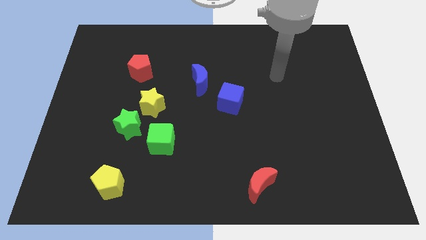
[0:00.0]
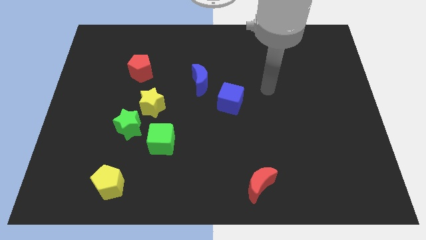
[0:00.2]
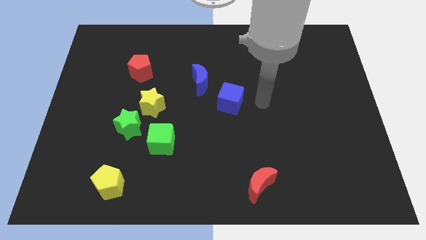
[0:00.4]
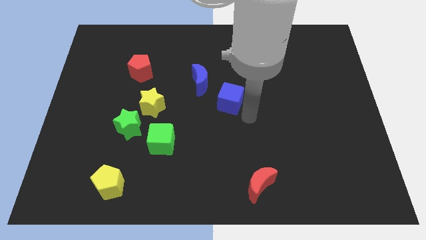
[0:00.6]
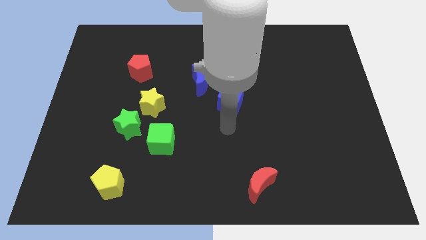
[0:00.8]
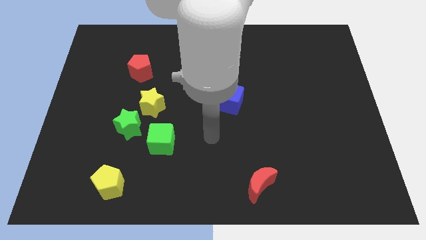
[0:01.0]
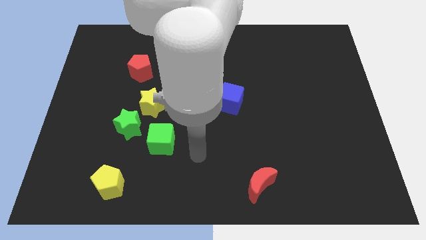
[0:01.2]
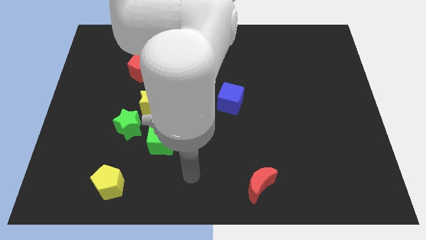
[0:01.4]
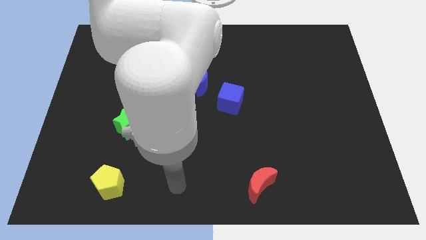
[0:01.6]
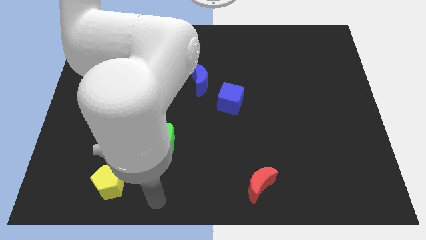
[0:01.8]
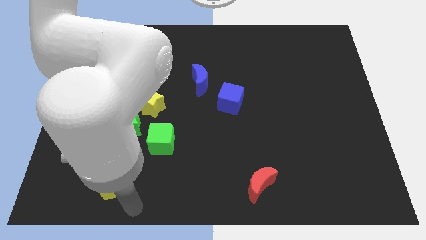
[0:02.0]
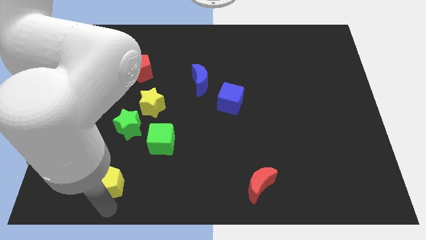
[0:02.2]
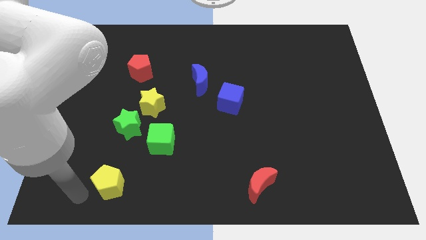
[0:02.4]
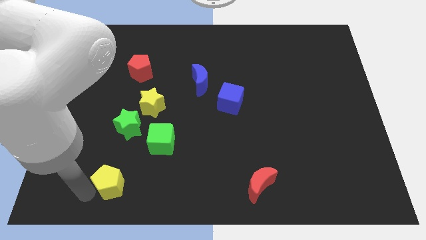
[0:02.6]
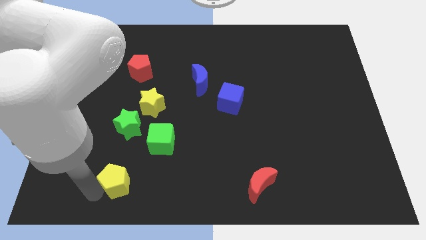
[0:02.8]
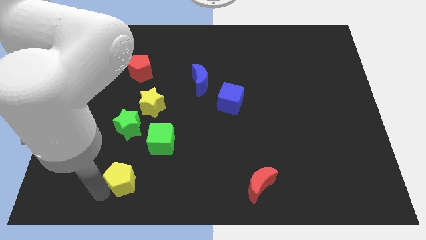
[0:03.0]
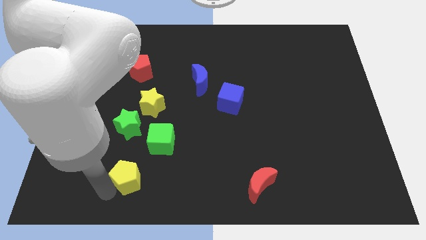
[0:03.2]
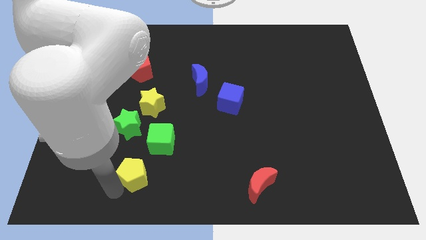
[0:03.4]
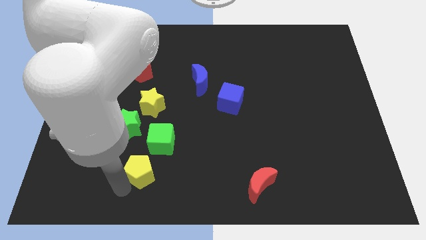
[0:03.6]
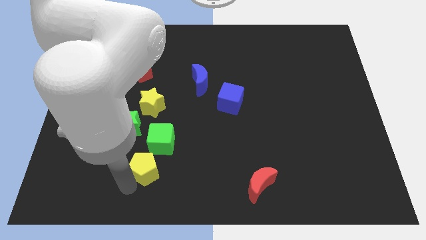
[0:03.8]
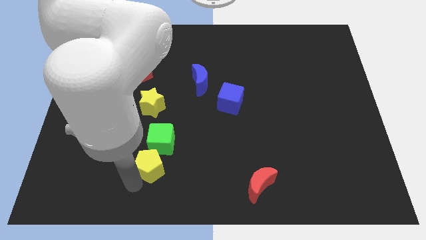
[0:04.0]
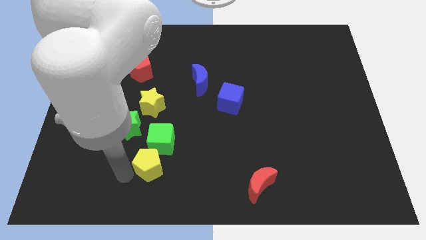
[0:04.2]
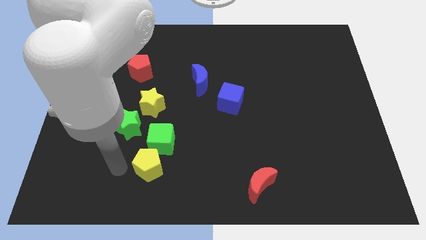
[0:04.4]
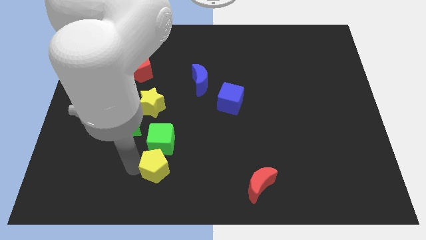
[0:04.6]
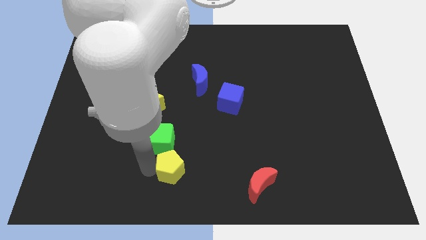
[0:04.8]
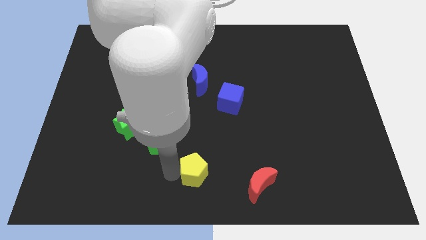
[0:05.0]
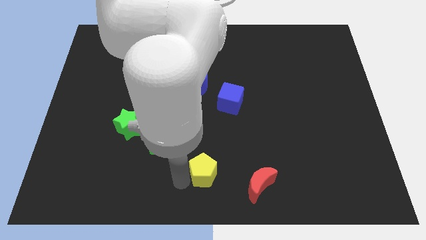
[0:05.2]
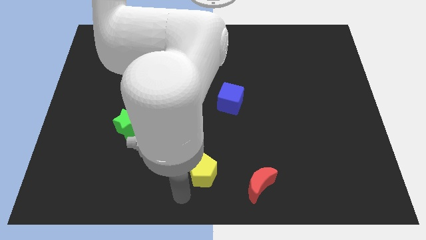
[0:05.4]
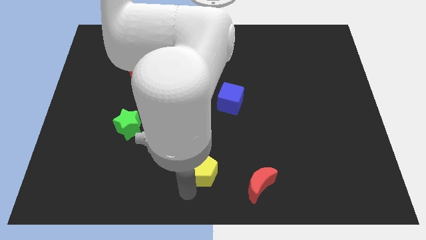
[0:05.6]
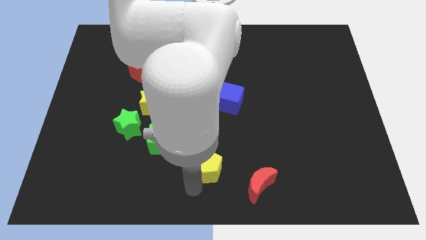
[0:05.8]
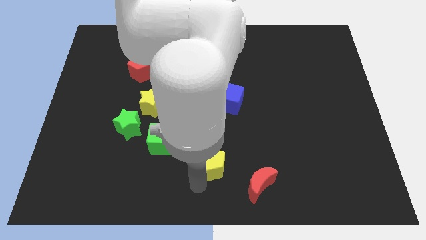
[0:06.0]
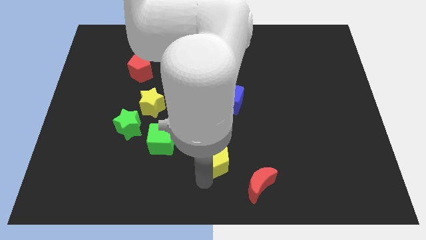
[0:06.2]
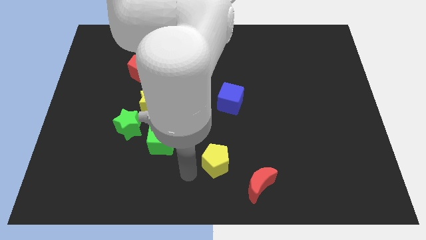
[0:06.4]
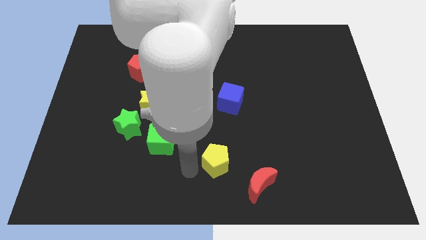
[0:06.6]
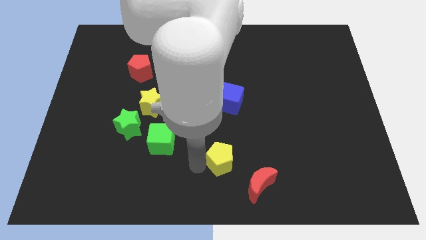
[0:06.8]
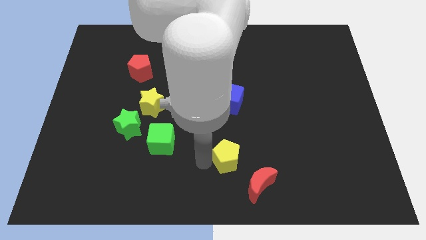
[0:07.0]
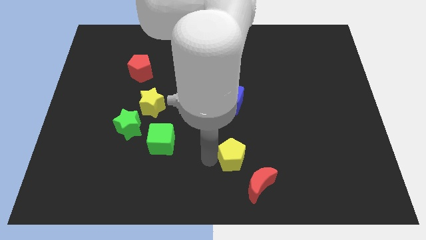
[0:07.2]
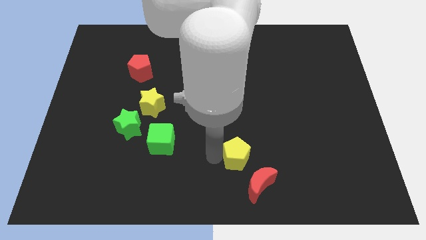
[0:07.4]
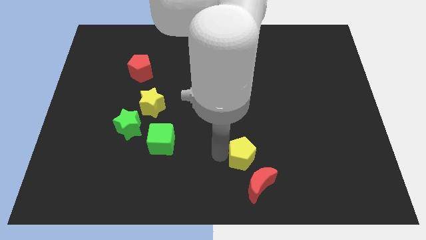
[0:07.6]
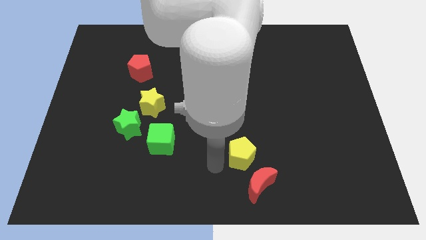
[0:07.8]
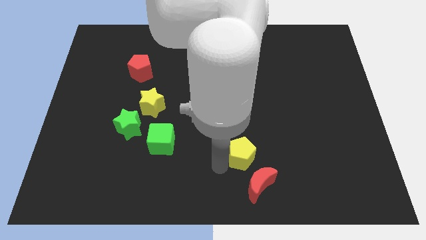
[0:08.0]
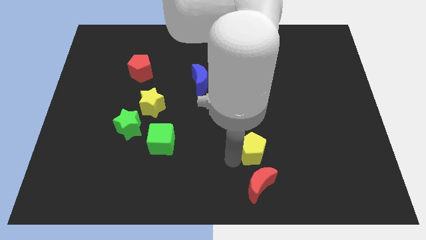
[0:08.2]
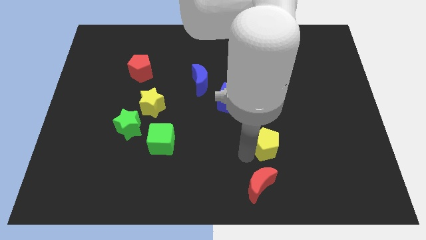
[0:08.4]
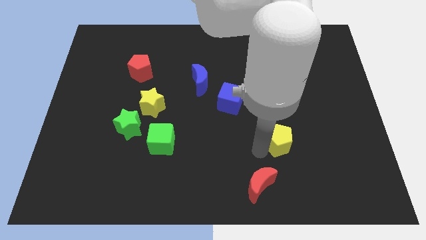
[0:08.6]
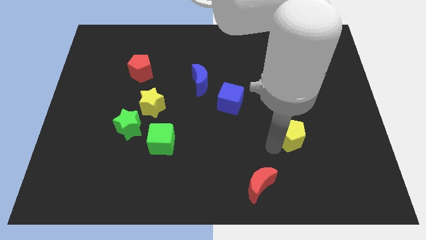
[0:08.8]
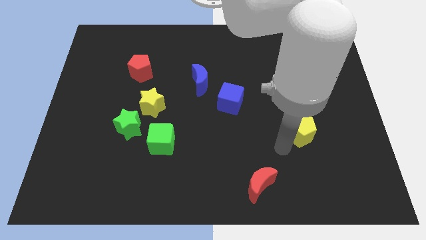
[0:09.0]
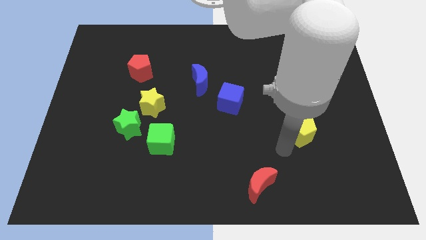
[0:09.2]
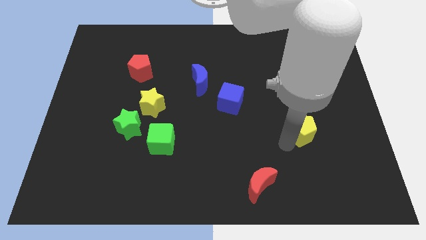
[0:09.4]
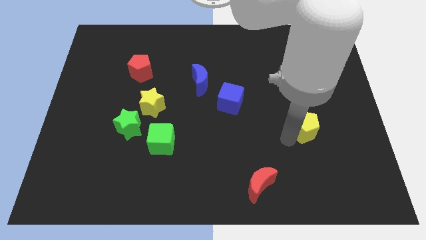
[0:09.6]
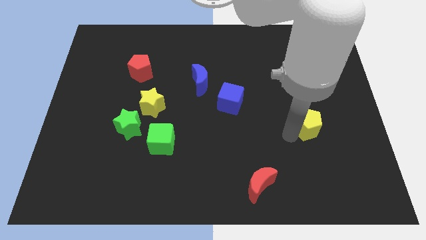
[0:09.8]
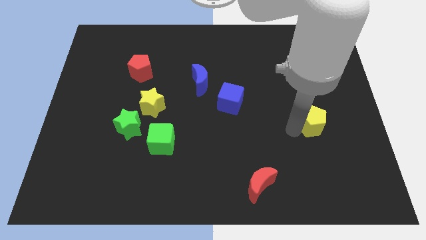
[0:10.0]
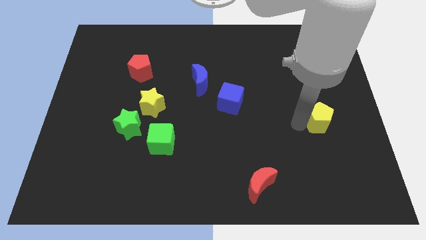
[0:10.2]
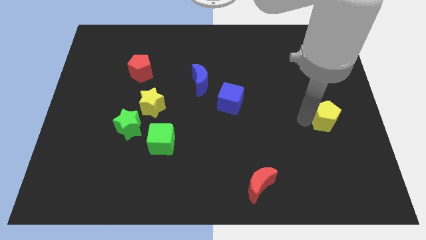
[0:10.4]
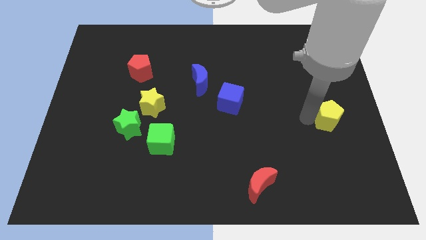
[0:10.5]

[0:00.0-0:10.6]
put the yellow pentagon to the center right

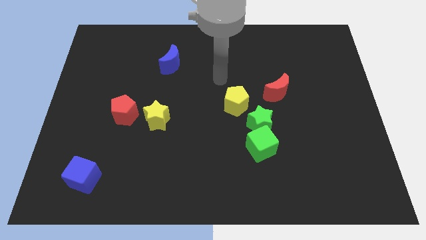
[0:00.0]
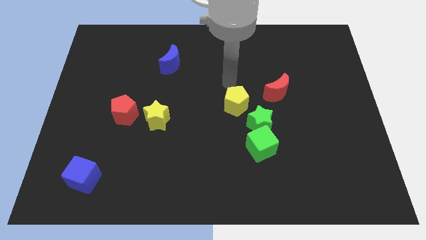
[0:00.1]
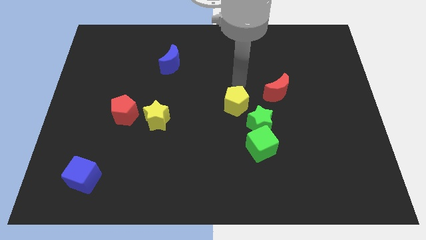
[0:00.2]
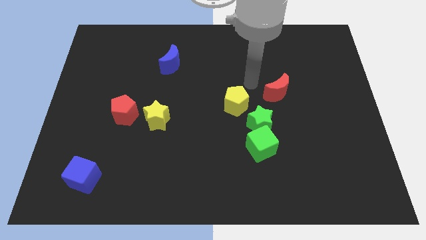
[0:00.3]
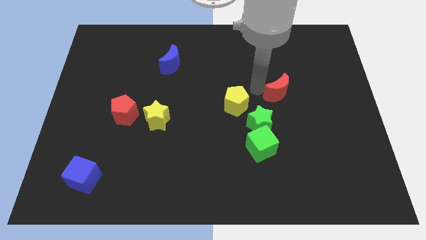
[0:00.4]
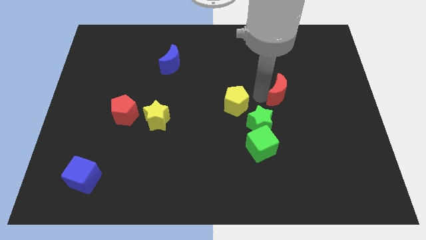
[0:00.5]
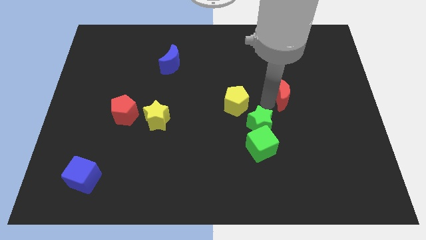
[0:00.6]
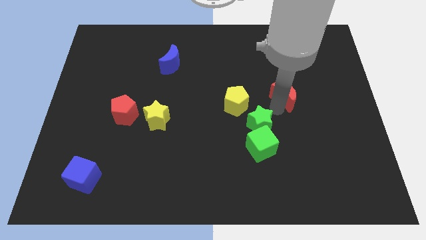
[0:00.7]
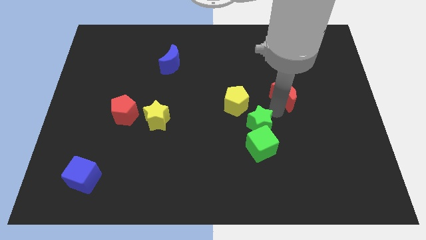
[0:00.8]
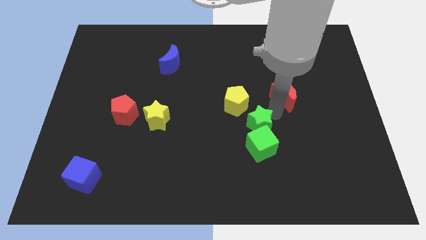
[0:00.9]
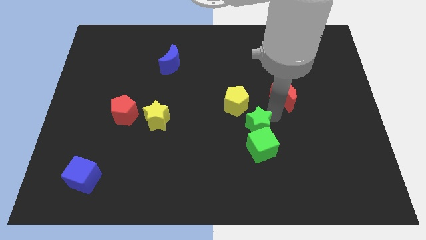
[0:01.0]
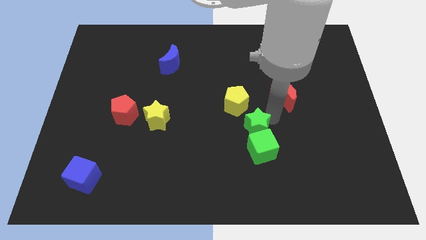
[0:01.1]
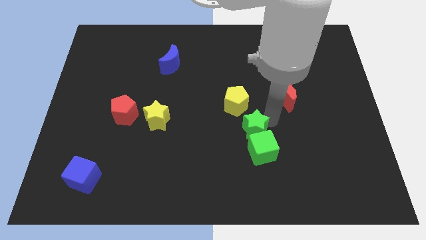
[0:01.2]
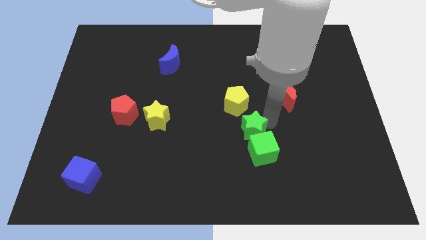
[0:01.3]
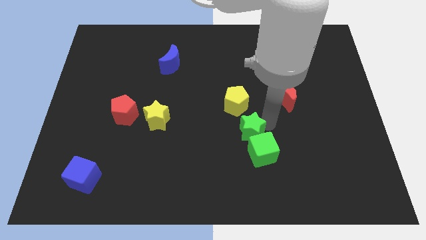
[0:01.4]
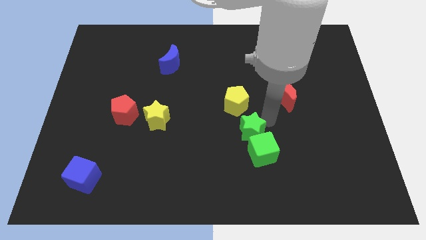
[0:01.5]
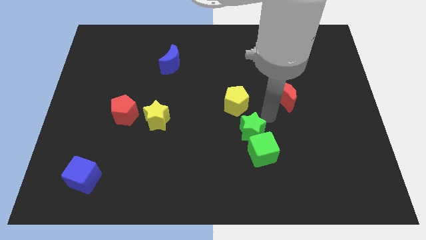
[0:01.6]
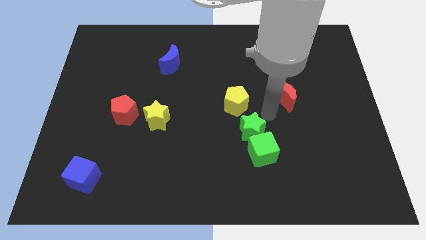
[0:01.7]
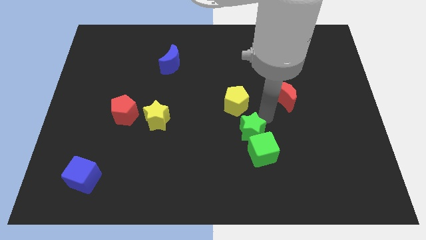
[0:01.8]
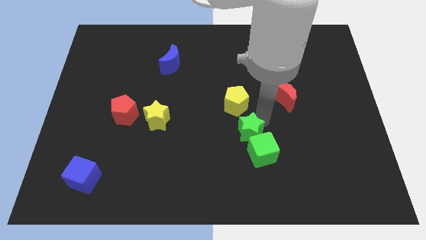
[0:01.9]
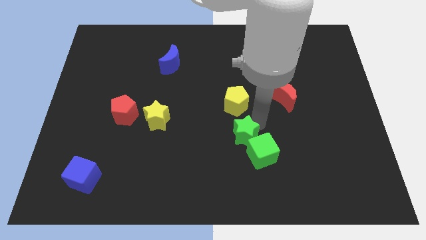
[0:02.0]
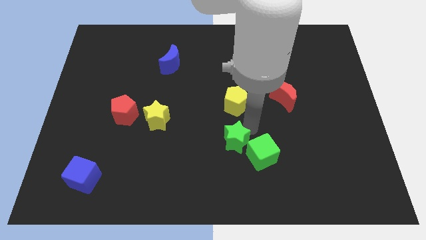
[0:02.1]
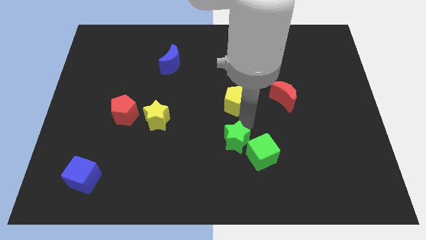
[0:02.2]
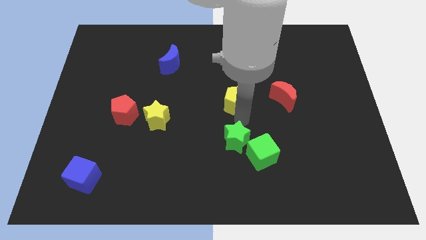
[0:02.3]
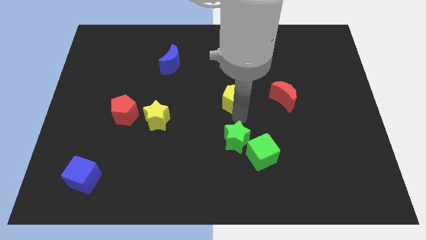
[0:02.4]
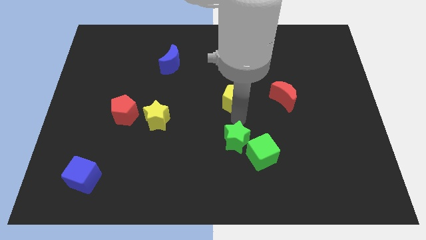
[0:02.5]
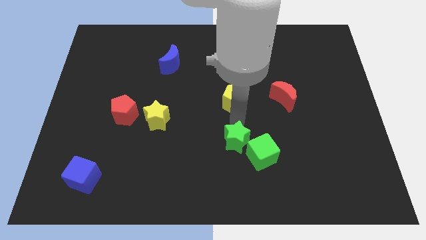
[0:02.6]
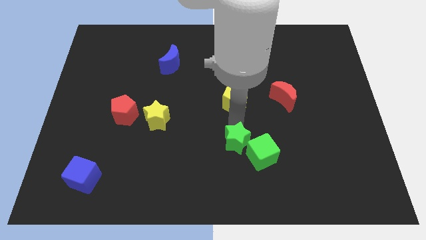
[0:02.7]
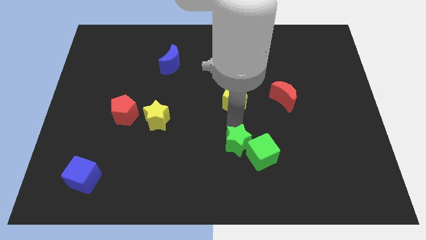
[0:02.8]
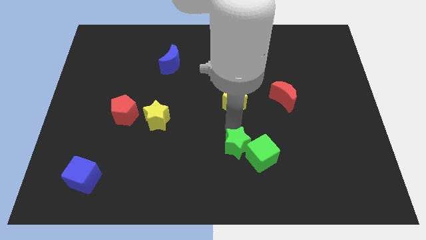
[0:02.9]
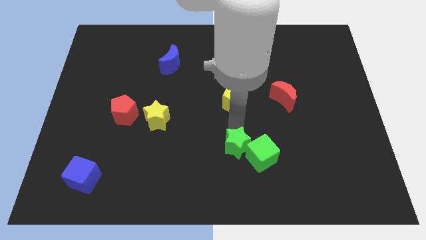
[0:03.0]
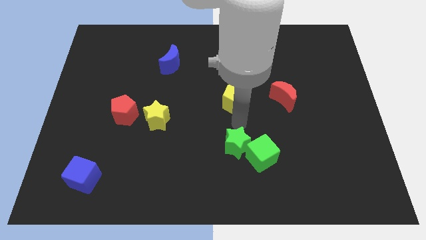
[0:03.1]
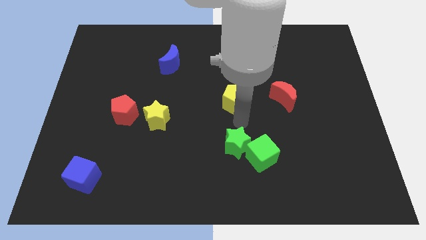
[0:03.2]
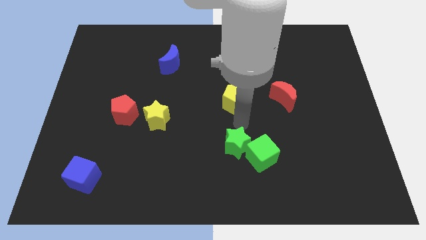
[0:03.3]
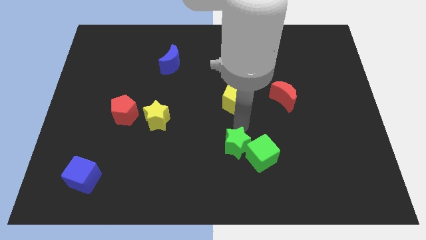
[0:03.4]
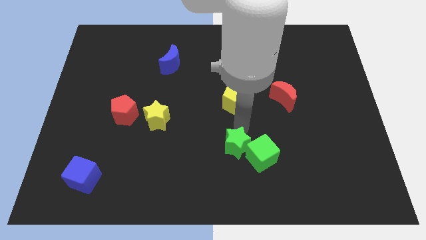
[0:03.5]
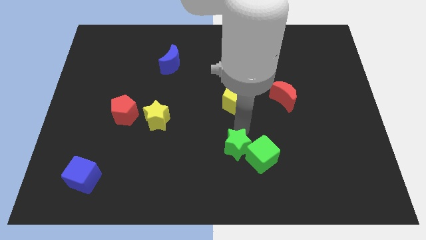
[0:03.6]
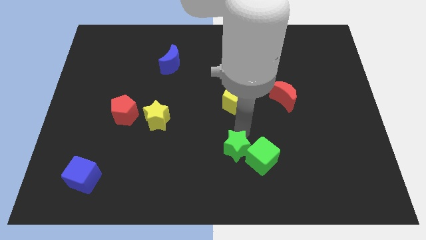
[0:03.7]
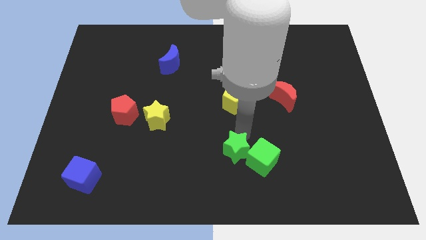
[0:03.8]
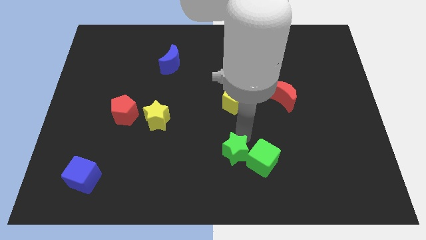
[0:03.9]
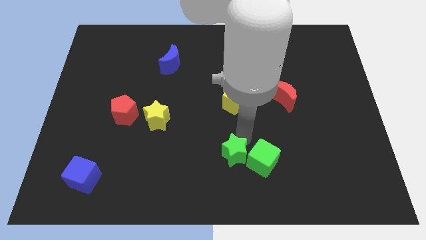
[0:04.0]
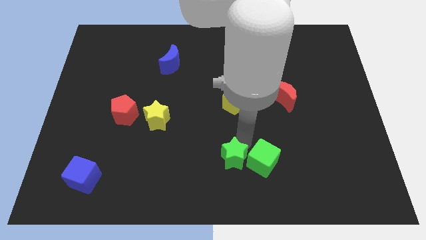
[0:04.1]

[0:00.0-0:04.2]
put the green star to the bottom
